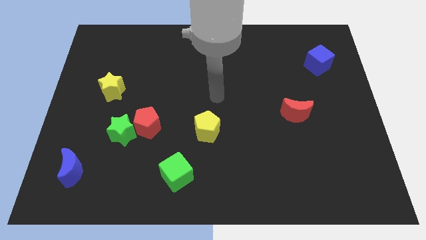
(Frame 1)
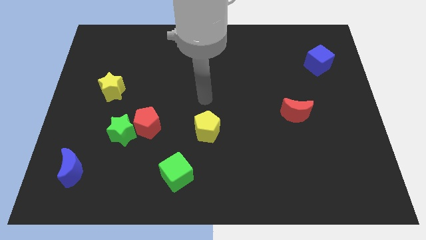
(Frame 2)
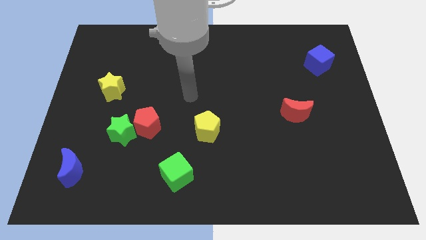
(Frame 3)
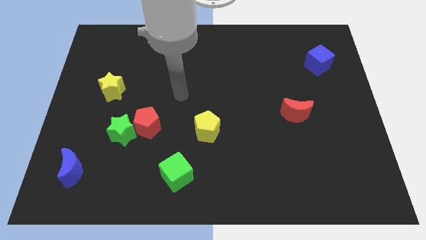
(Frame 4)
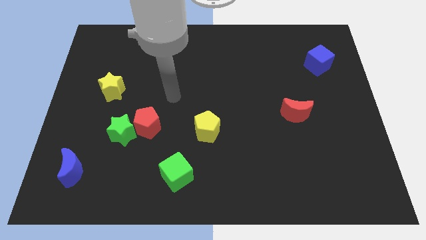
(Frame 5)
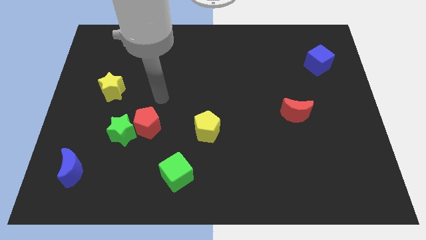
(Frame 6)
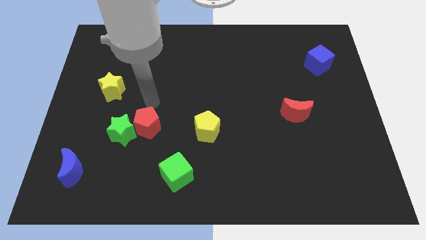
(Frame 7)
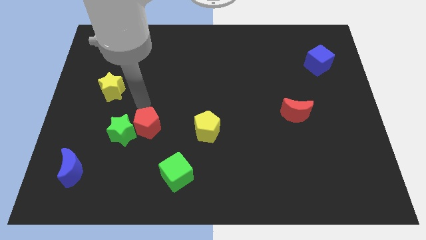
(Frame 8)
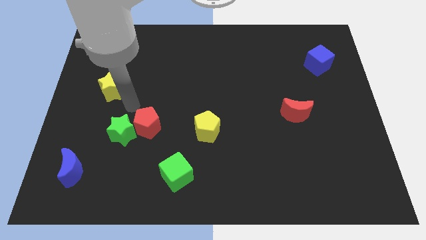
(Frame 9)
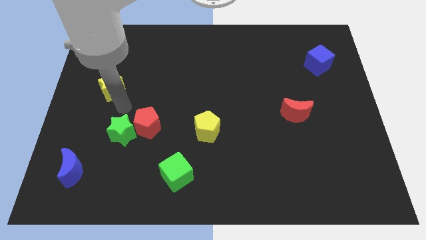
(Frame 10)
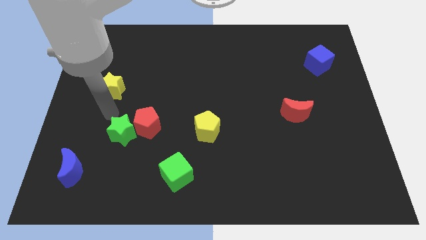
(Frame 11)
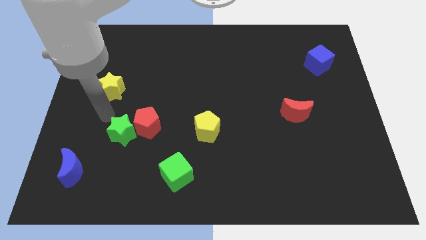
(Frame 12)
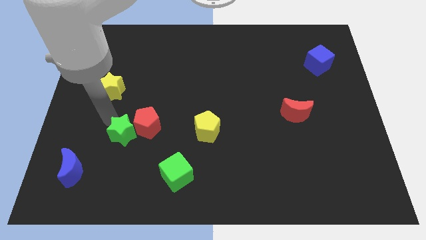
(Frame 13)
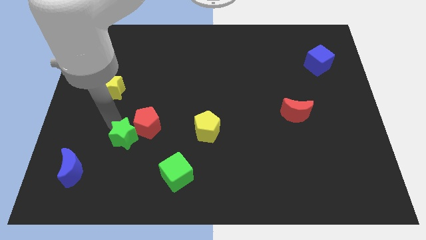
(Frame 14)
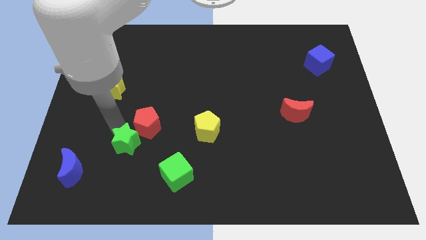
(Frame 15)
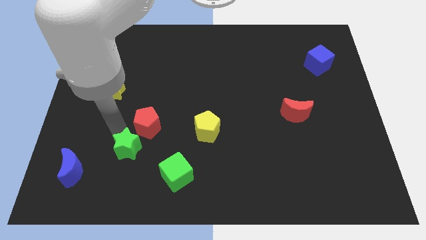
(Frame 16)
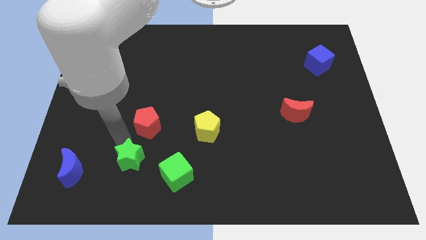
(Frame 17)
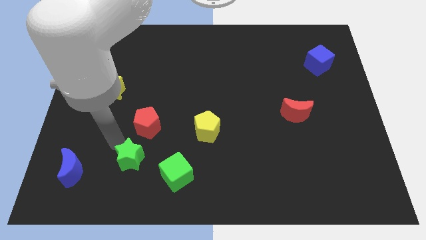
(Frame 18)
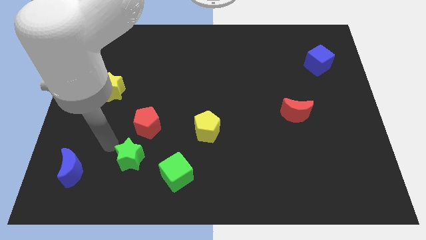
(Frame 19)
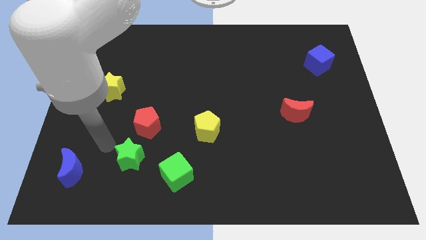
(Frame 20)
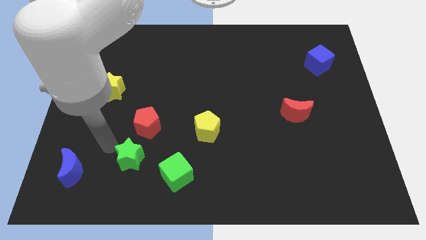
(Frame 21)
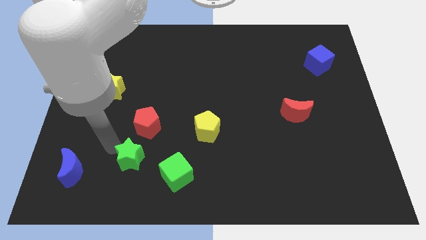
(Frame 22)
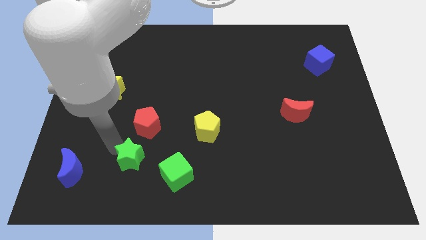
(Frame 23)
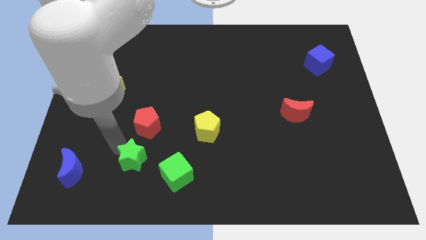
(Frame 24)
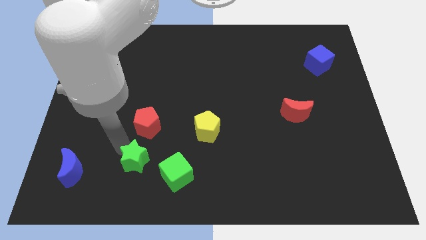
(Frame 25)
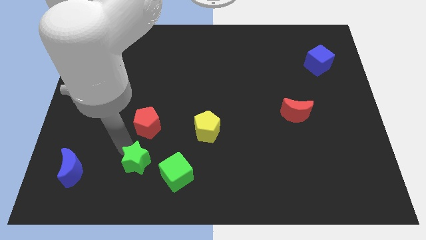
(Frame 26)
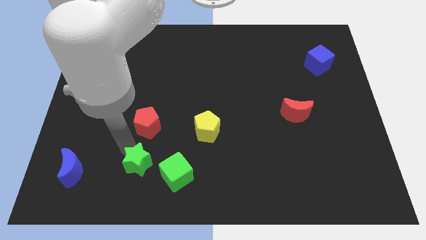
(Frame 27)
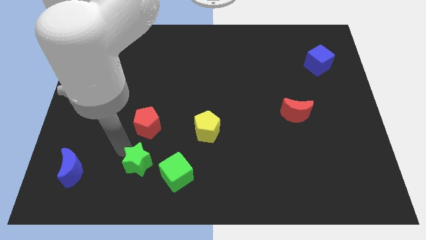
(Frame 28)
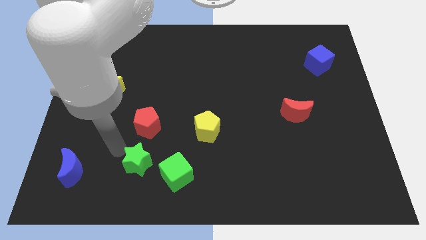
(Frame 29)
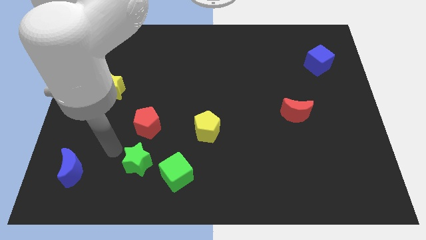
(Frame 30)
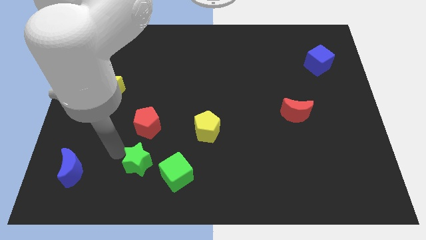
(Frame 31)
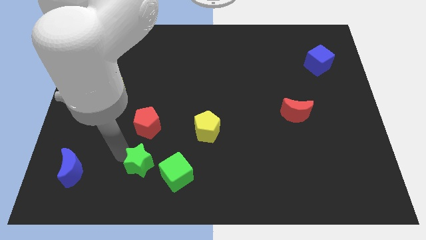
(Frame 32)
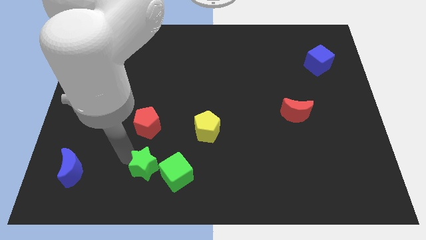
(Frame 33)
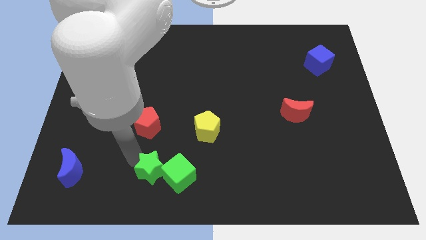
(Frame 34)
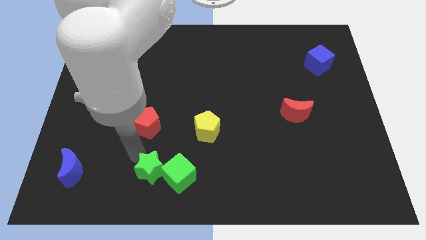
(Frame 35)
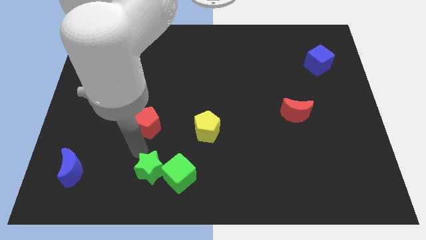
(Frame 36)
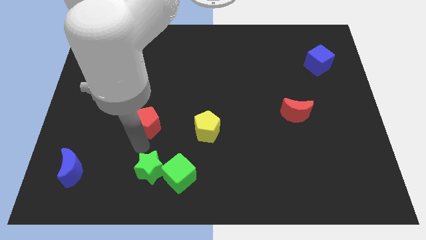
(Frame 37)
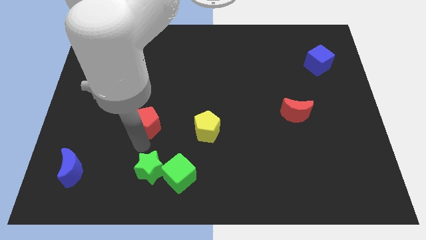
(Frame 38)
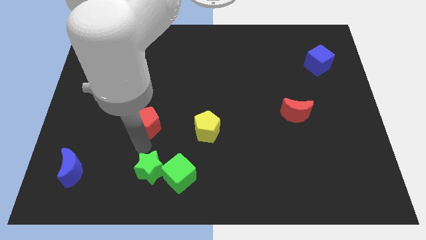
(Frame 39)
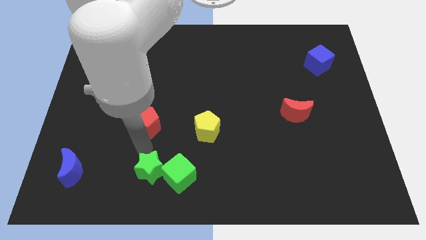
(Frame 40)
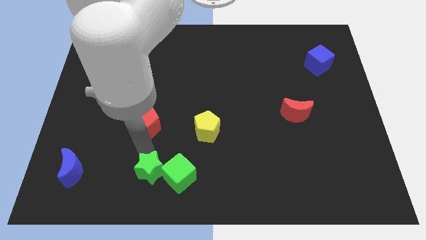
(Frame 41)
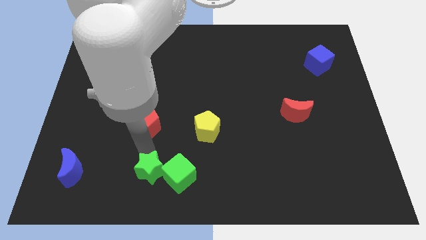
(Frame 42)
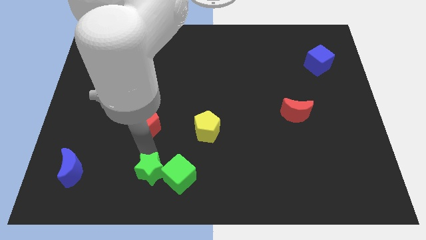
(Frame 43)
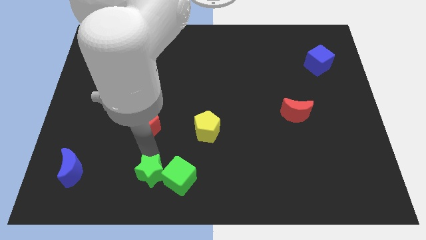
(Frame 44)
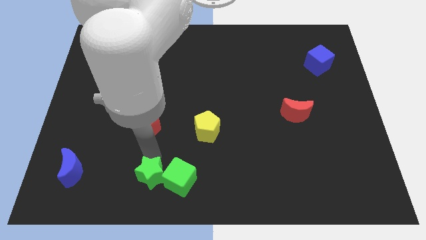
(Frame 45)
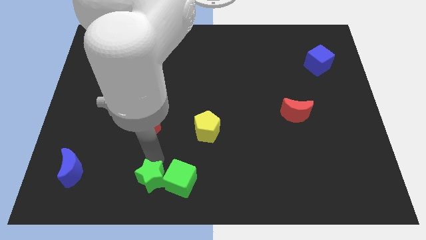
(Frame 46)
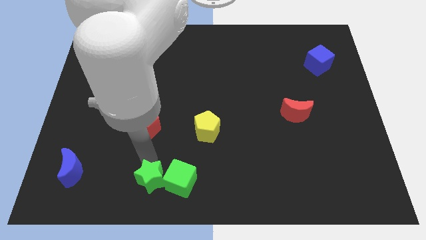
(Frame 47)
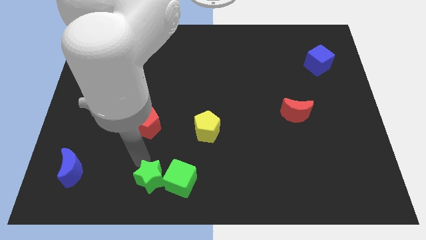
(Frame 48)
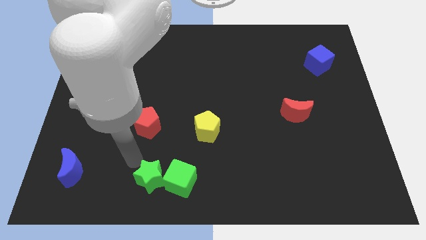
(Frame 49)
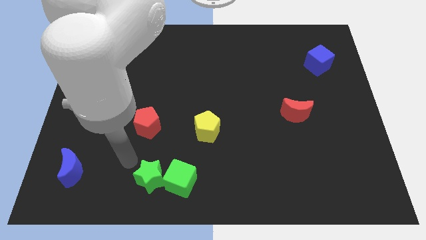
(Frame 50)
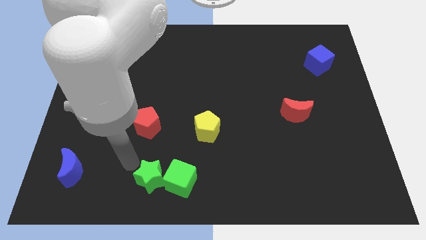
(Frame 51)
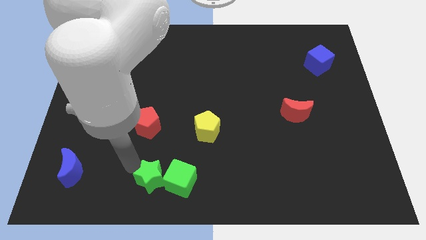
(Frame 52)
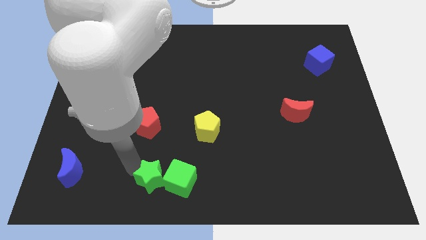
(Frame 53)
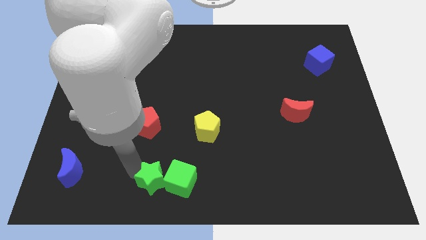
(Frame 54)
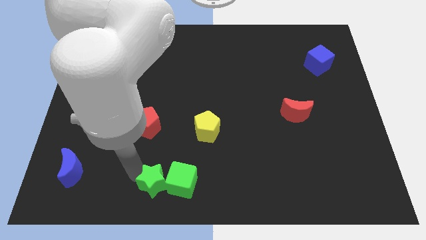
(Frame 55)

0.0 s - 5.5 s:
slide the green star to the bottom

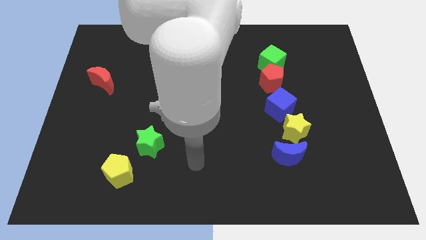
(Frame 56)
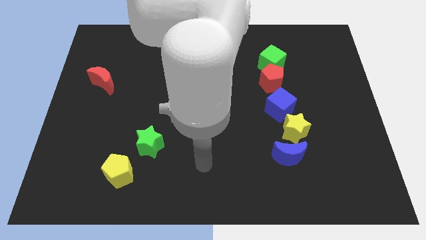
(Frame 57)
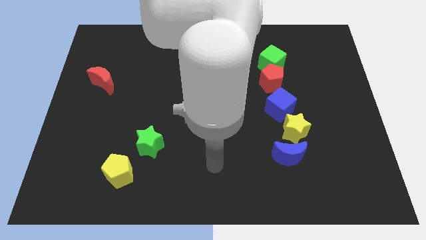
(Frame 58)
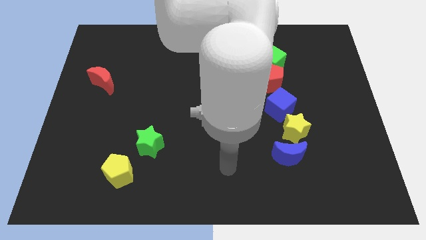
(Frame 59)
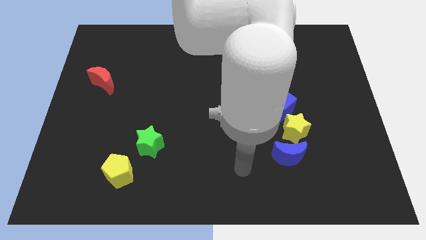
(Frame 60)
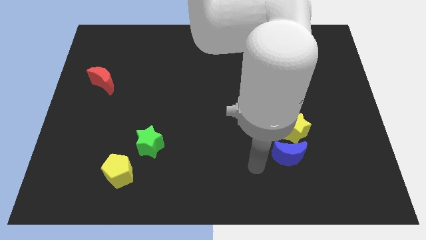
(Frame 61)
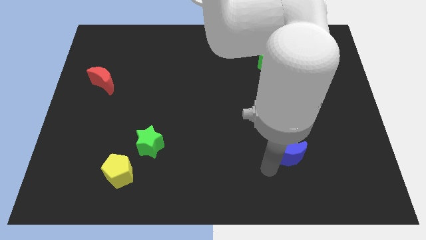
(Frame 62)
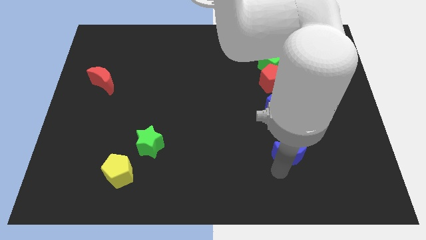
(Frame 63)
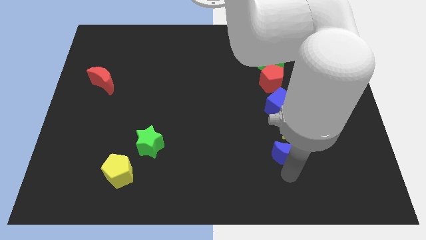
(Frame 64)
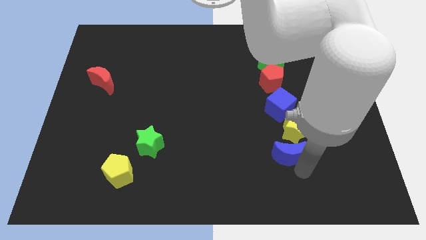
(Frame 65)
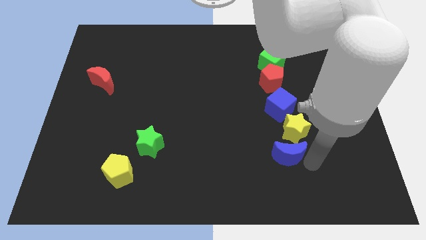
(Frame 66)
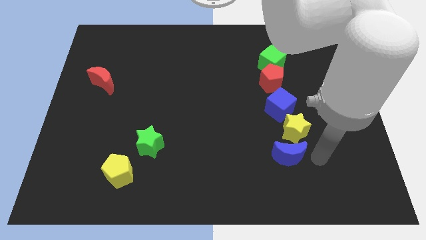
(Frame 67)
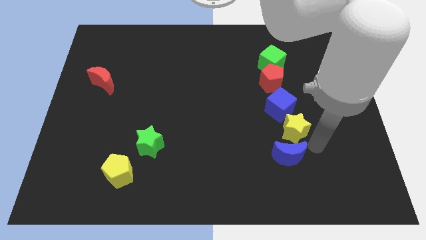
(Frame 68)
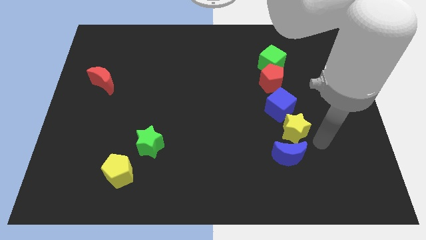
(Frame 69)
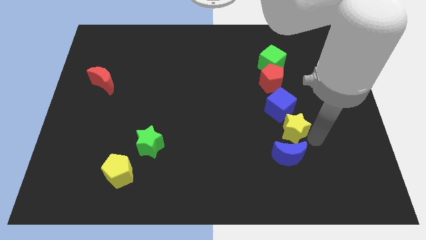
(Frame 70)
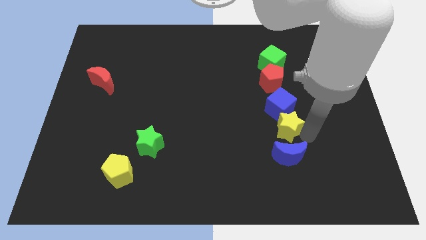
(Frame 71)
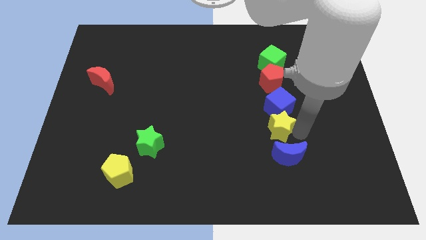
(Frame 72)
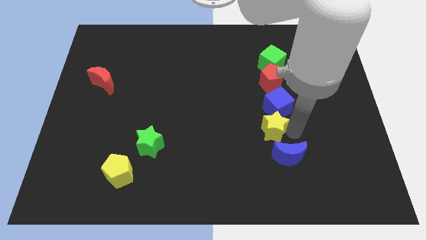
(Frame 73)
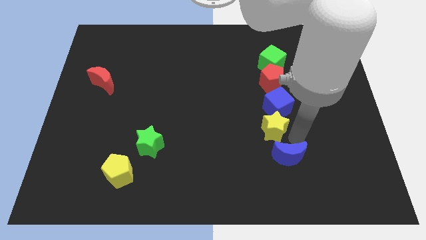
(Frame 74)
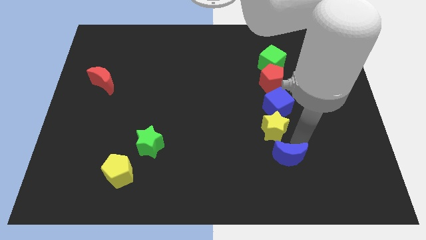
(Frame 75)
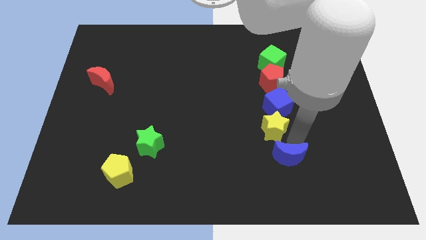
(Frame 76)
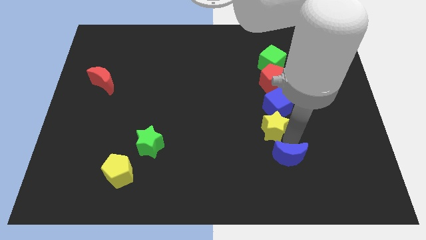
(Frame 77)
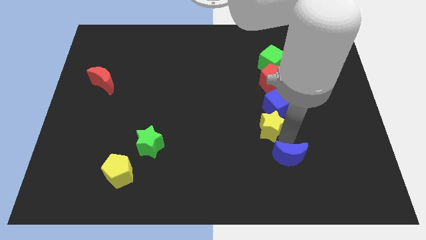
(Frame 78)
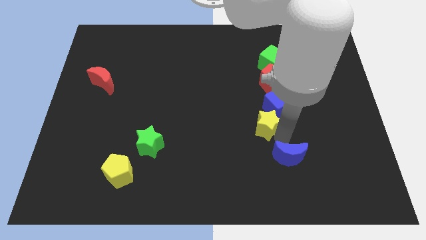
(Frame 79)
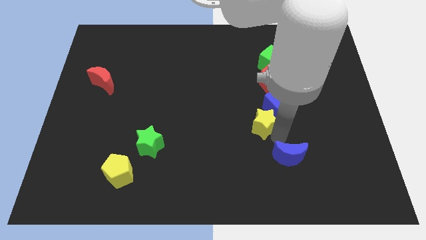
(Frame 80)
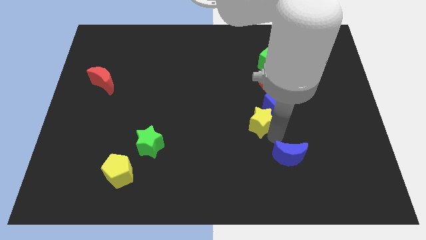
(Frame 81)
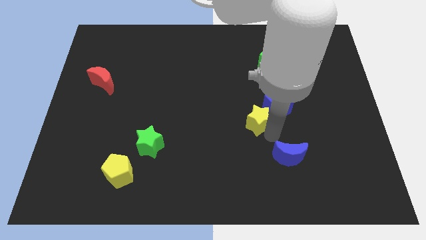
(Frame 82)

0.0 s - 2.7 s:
move the yellow star to the middle of the board
